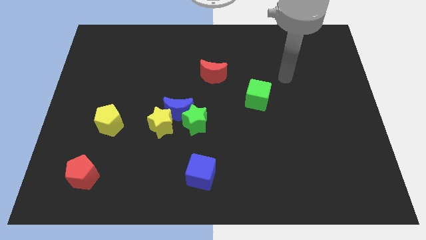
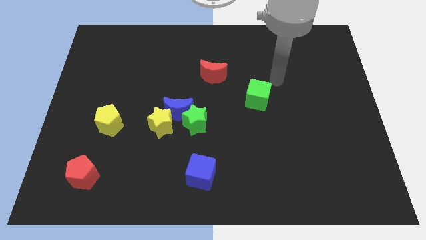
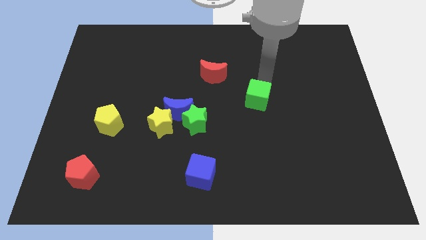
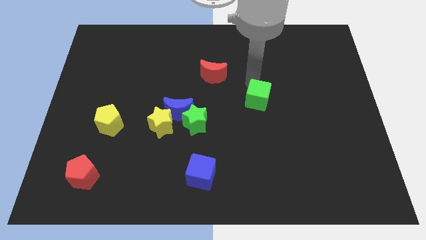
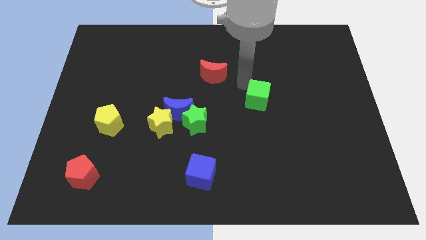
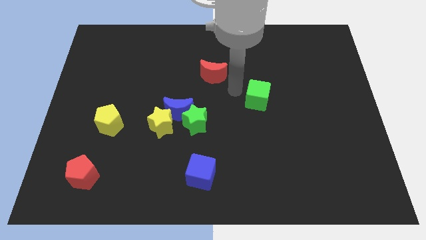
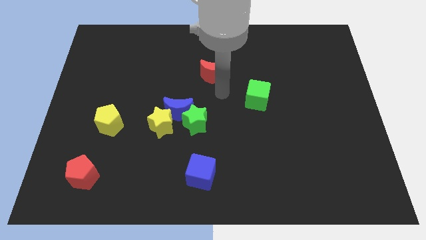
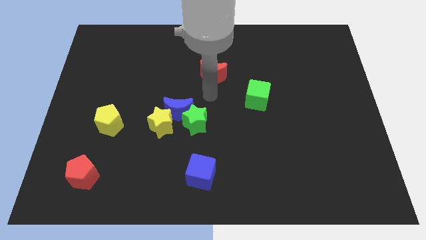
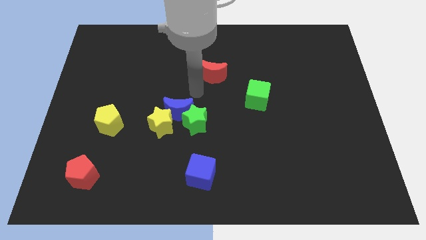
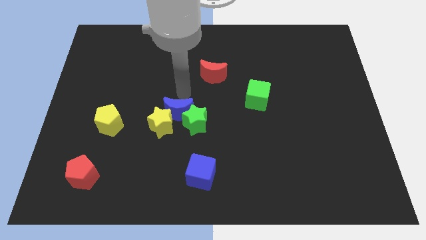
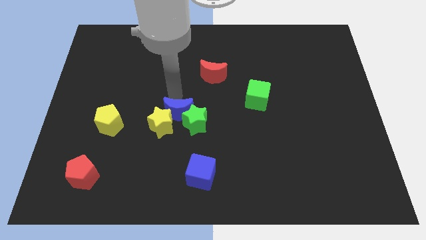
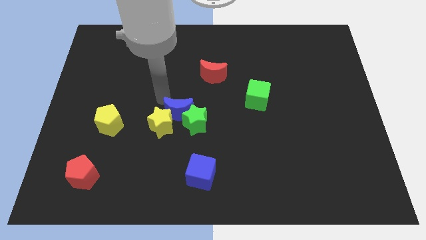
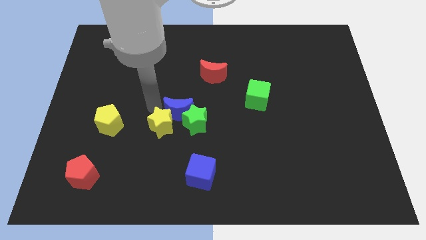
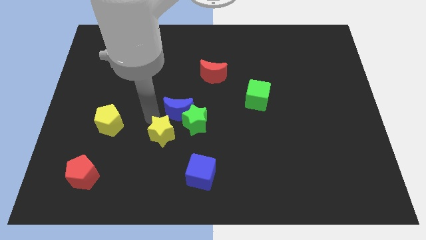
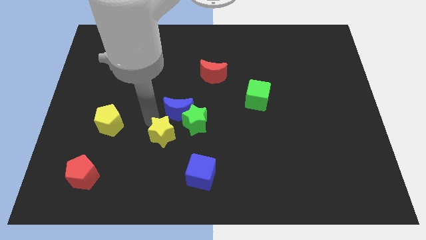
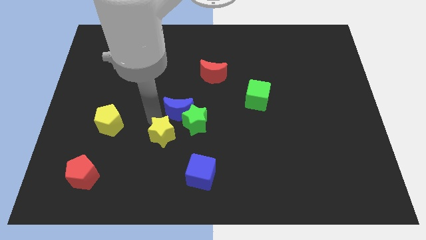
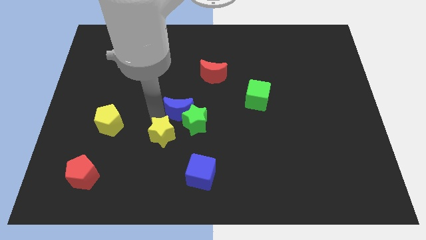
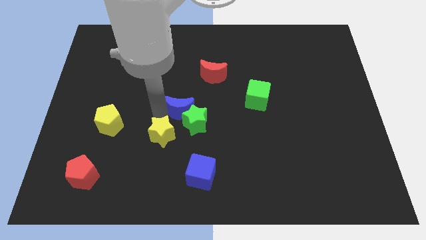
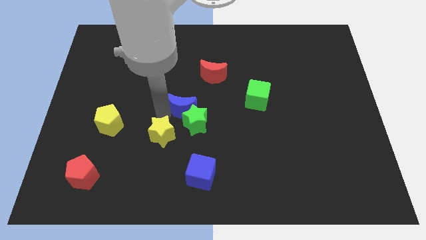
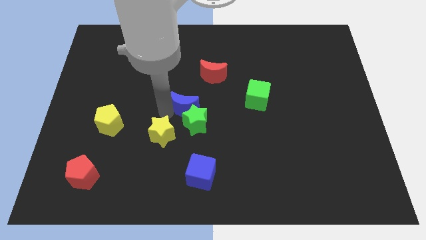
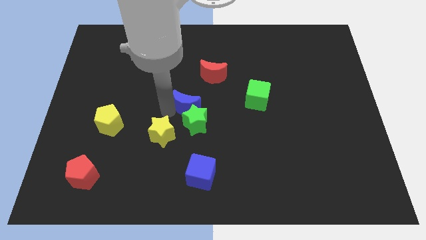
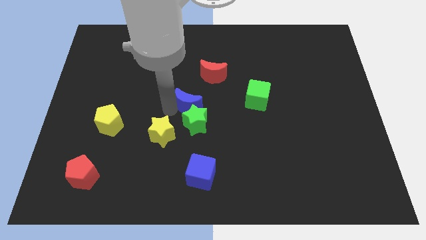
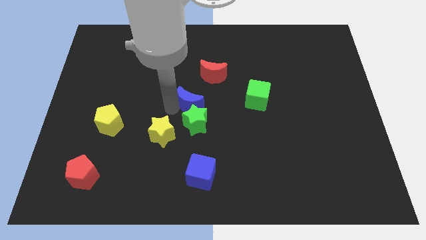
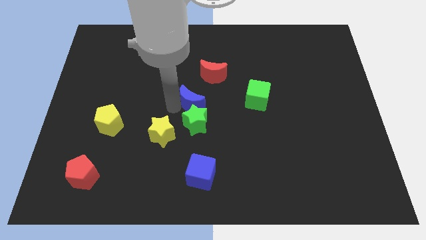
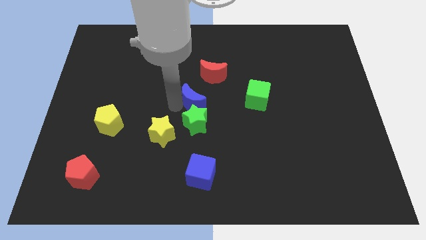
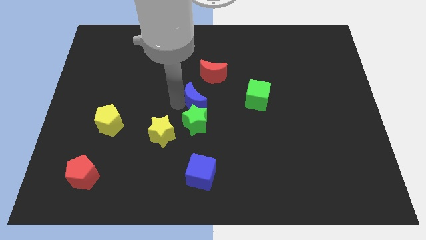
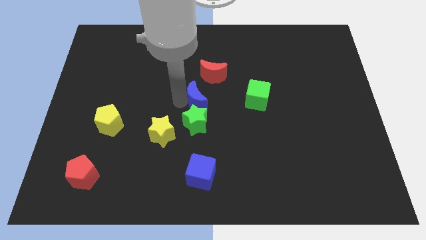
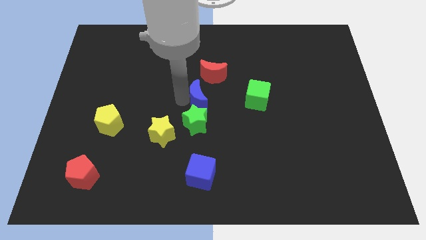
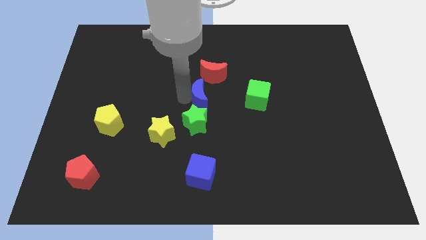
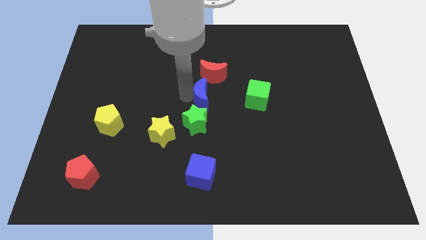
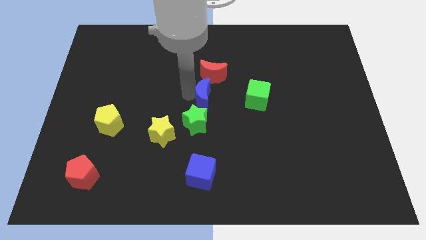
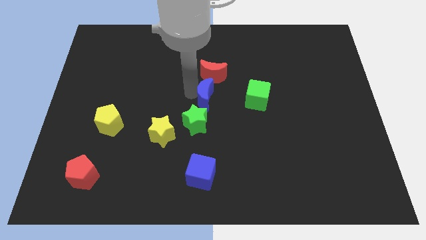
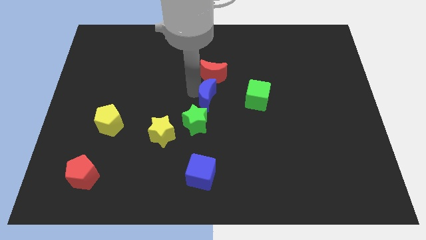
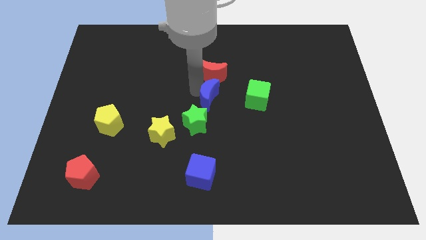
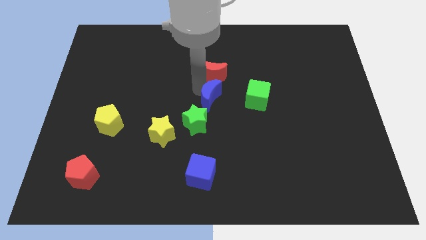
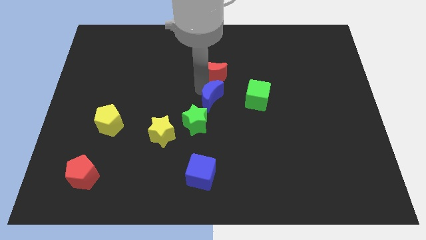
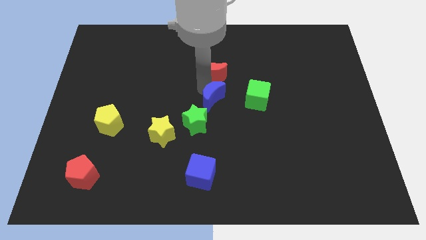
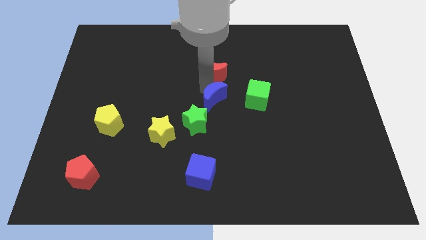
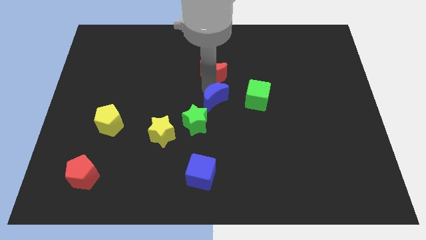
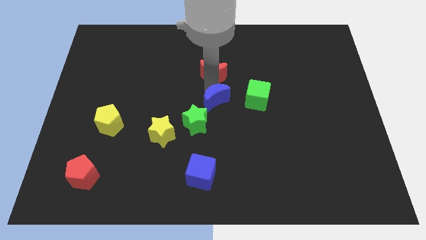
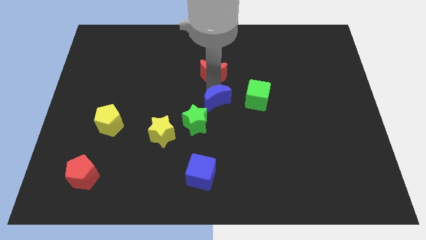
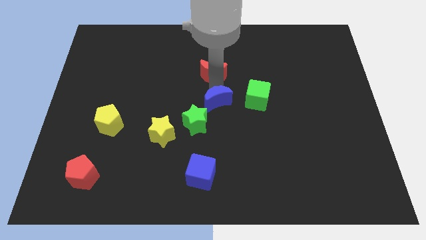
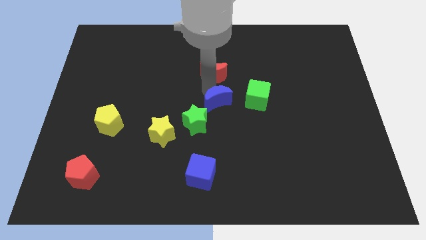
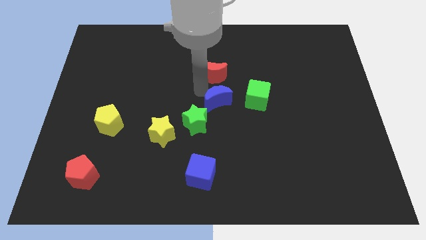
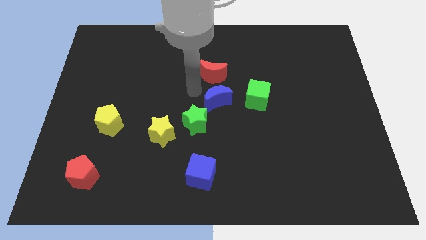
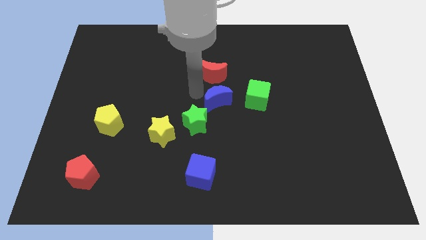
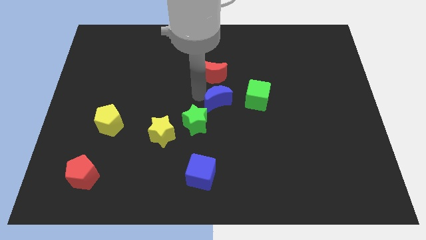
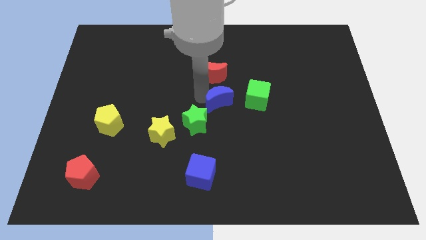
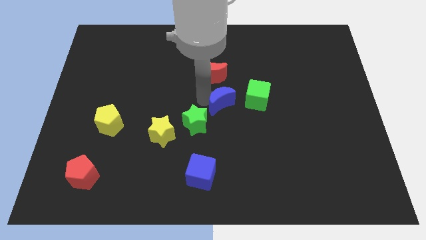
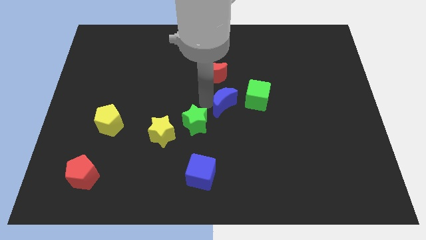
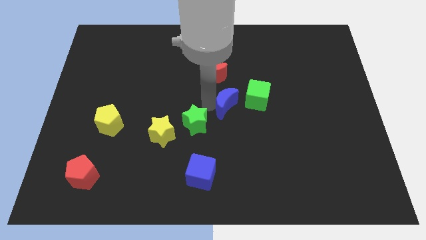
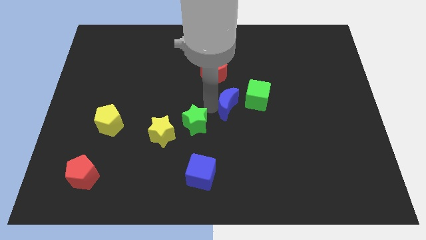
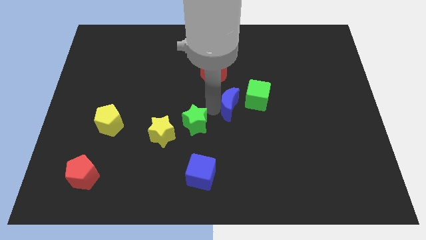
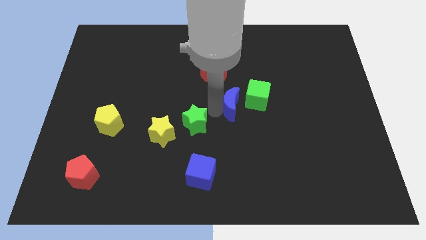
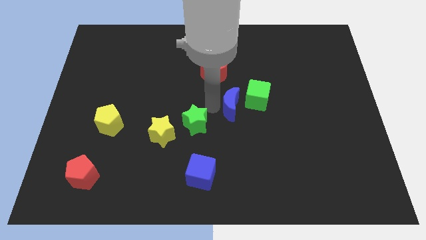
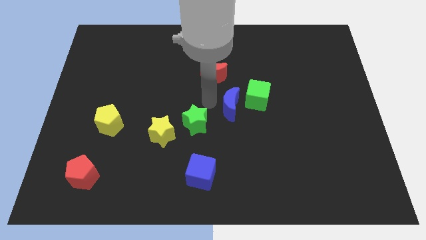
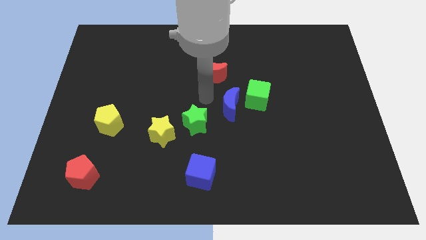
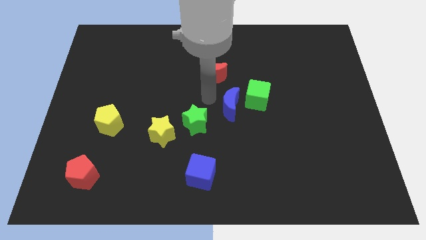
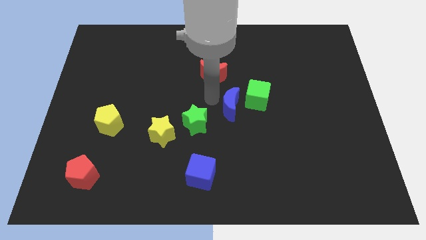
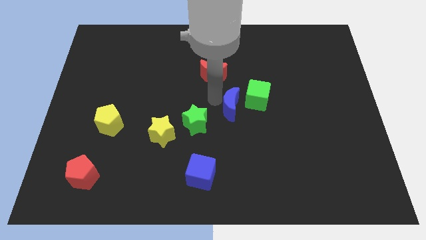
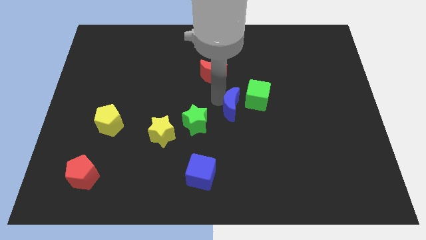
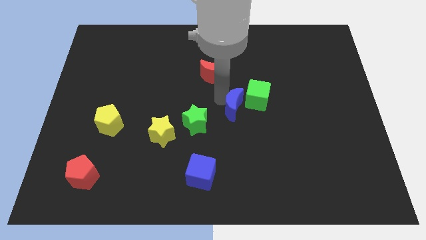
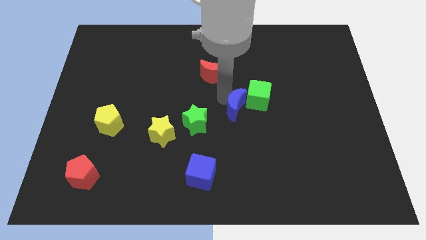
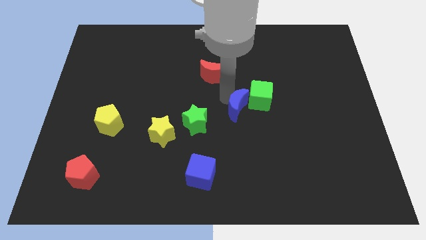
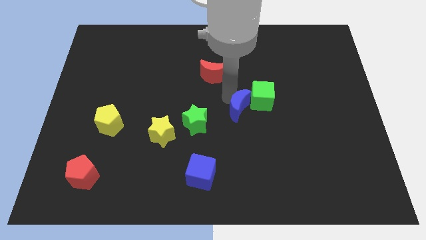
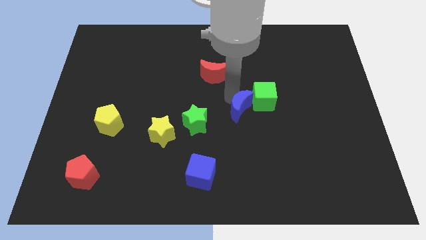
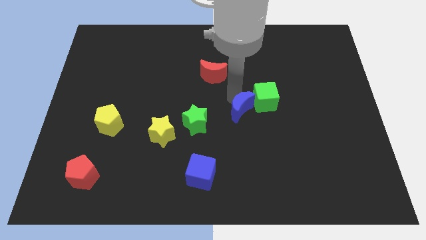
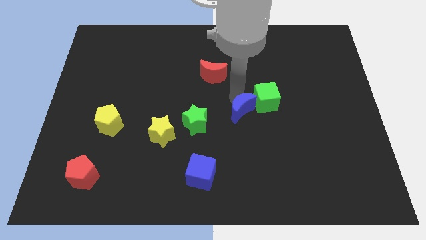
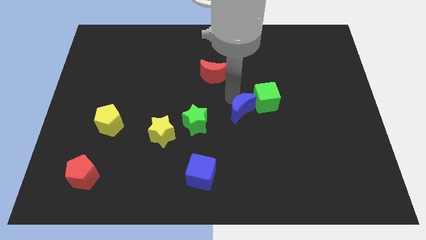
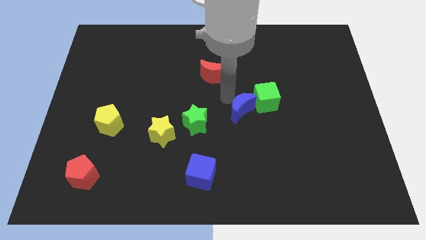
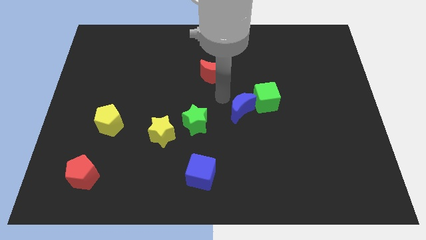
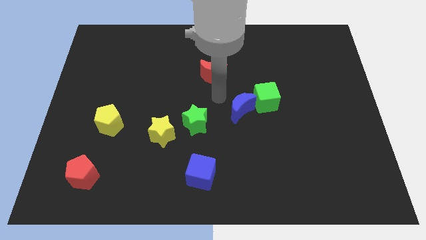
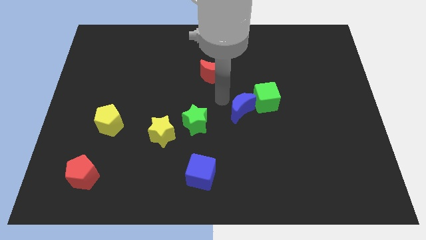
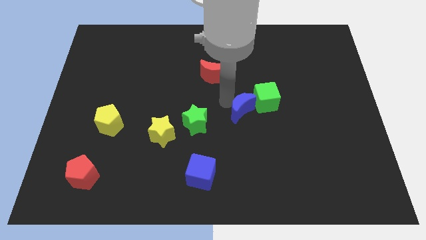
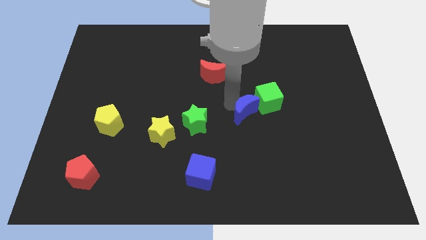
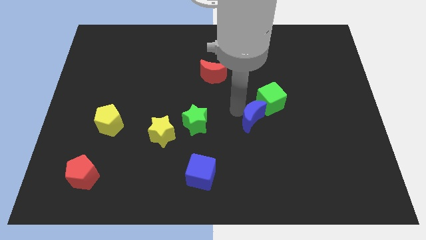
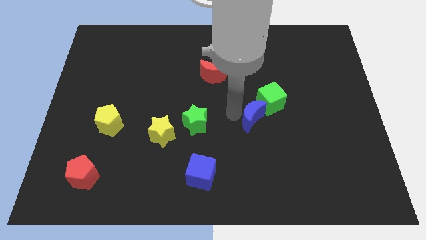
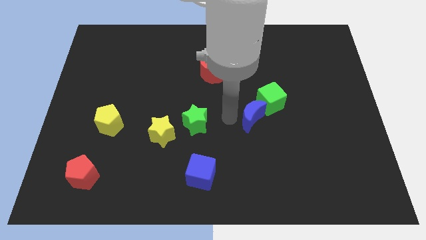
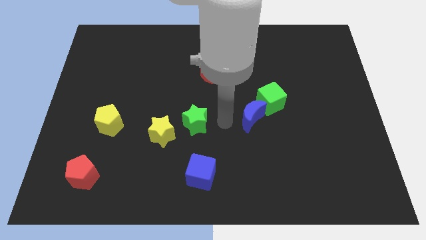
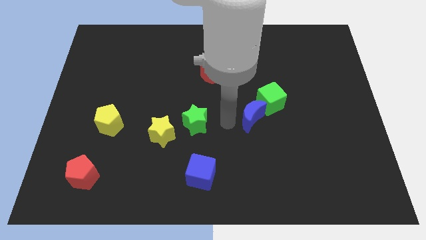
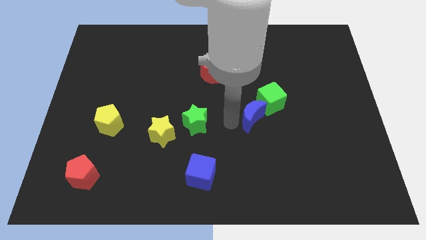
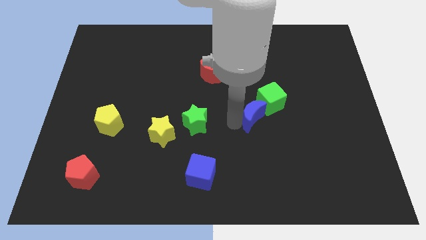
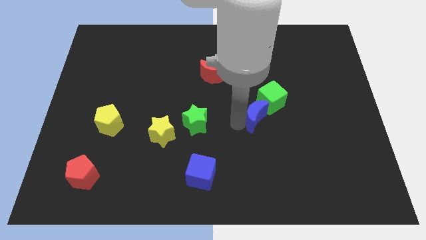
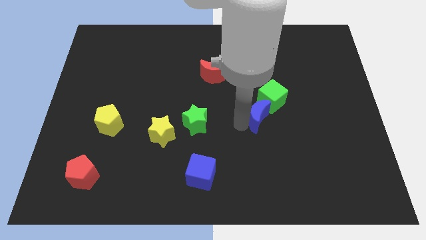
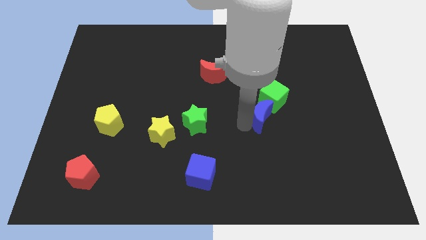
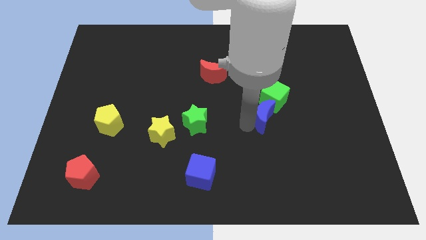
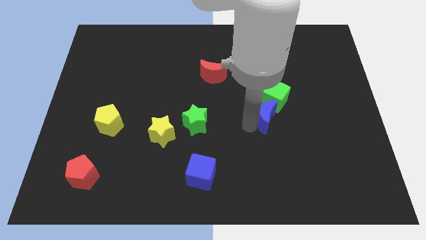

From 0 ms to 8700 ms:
slide the blue moon to the right
